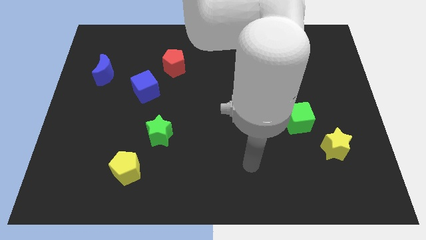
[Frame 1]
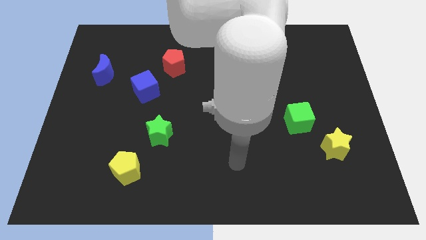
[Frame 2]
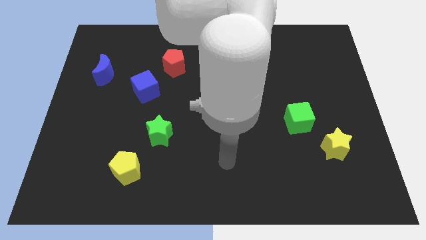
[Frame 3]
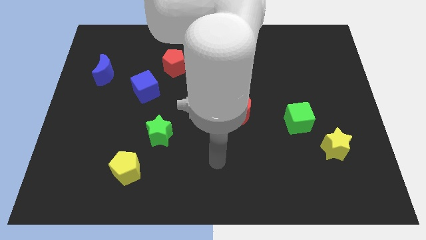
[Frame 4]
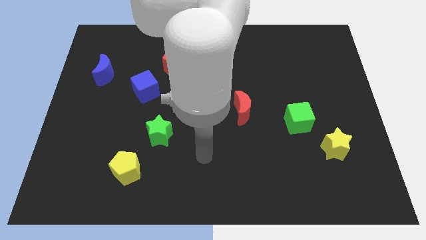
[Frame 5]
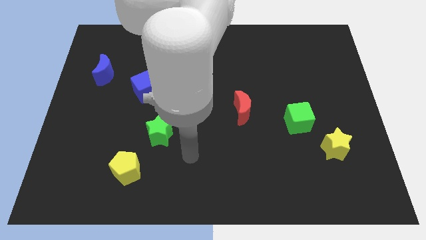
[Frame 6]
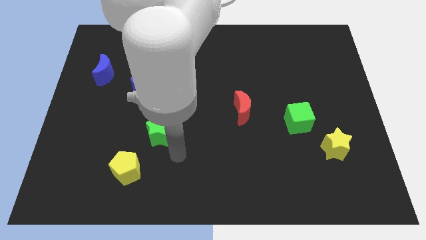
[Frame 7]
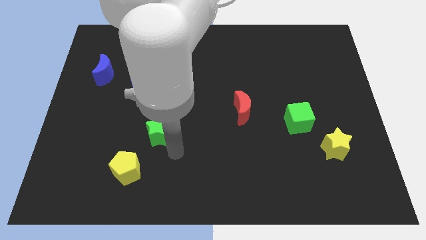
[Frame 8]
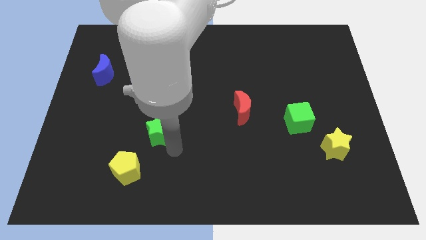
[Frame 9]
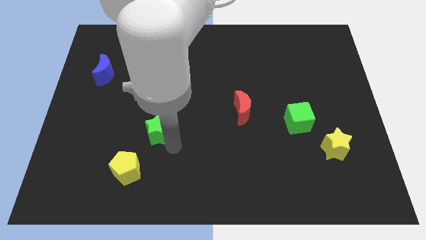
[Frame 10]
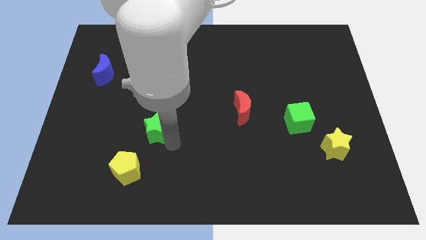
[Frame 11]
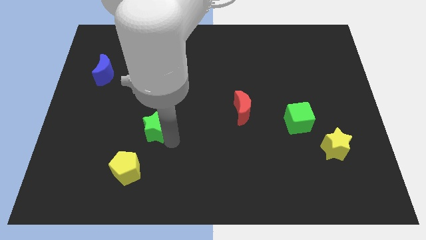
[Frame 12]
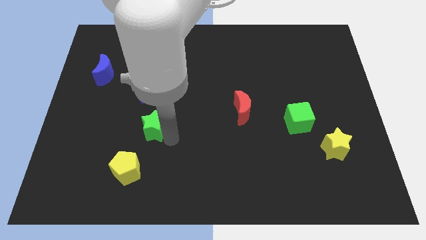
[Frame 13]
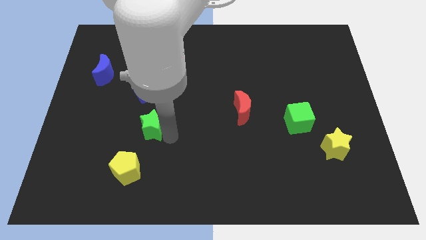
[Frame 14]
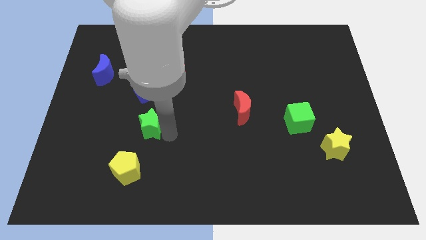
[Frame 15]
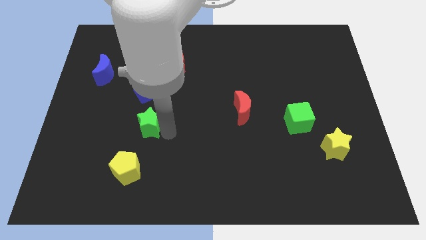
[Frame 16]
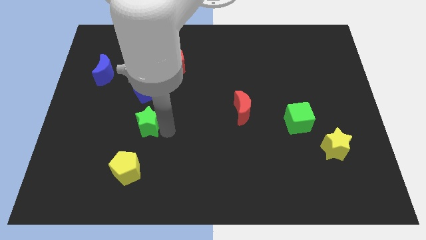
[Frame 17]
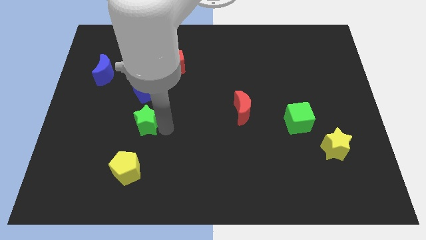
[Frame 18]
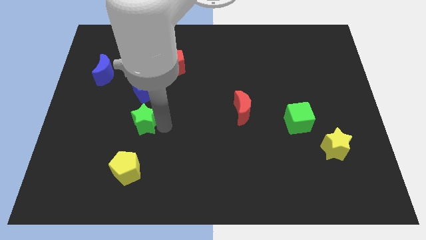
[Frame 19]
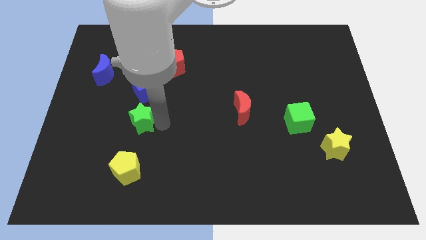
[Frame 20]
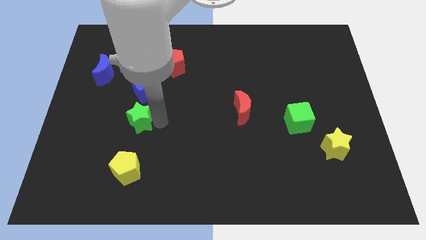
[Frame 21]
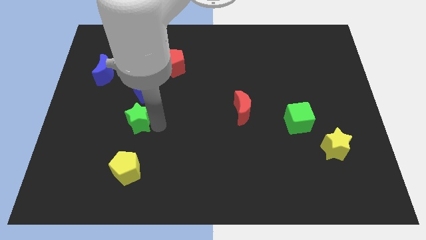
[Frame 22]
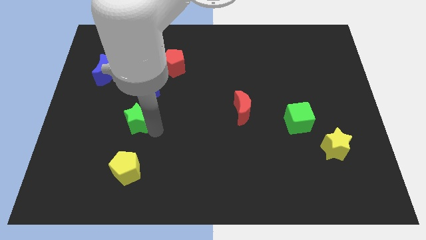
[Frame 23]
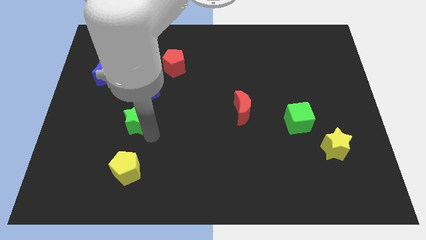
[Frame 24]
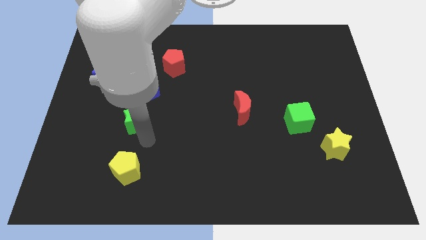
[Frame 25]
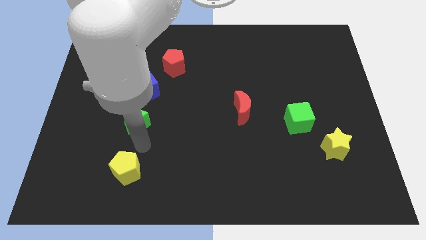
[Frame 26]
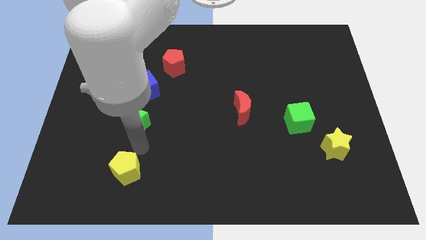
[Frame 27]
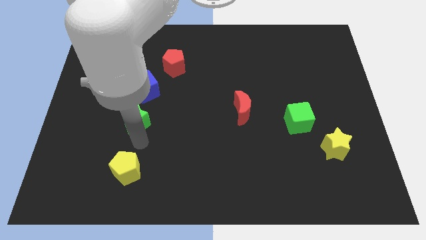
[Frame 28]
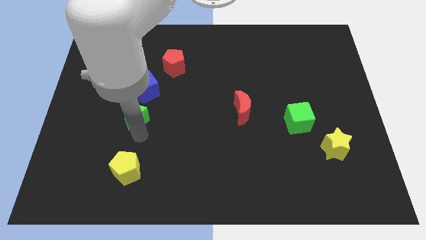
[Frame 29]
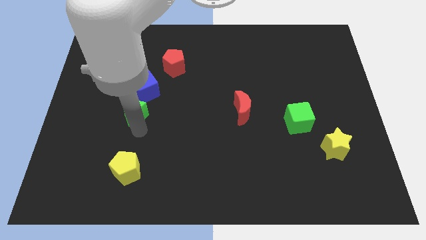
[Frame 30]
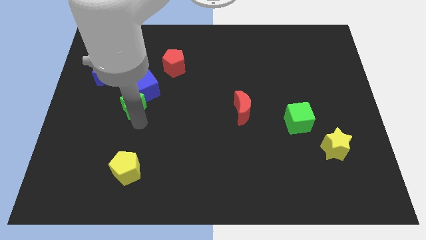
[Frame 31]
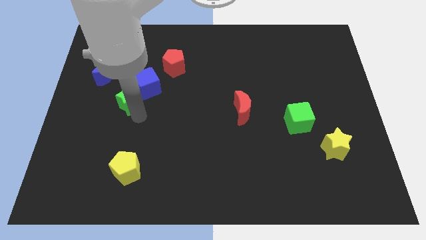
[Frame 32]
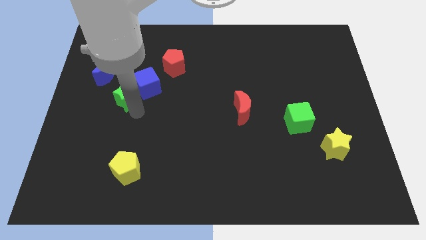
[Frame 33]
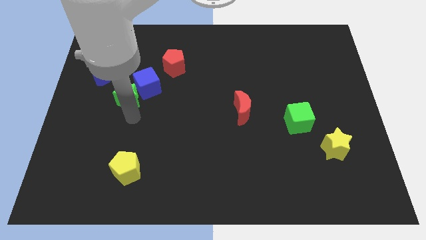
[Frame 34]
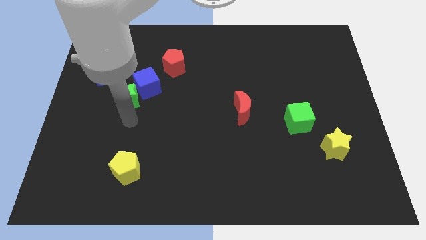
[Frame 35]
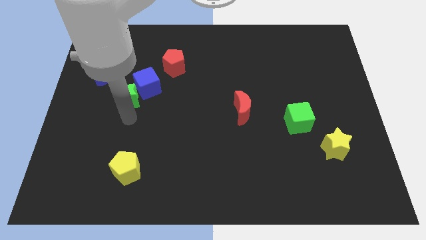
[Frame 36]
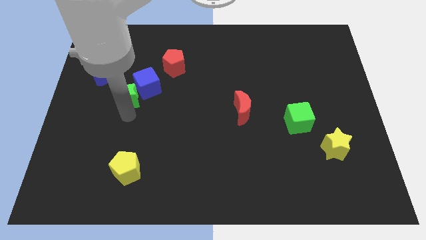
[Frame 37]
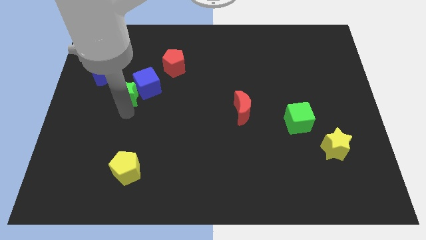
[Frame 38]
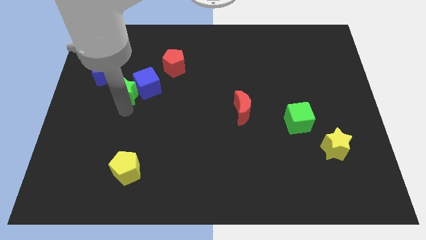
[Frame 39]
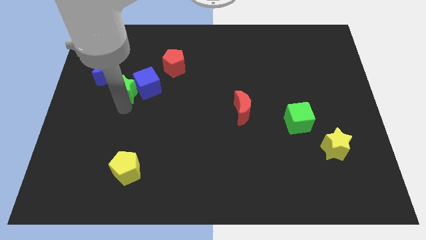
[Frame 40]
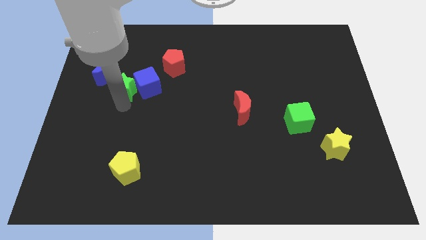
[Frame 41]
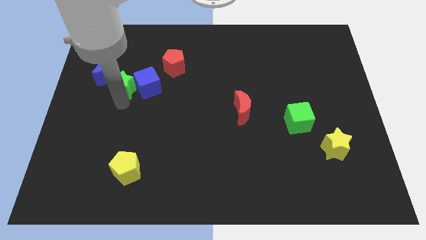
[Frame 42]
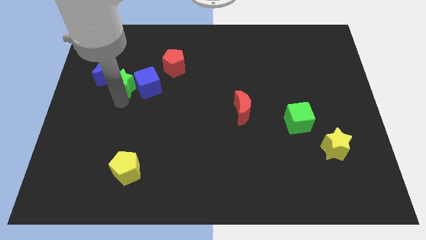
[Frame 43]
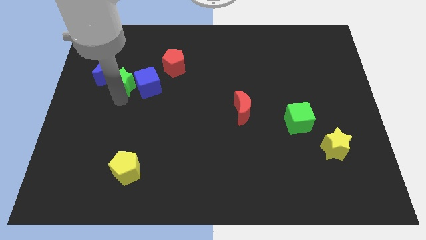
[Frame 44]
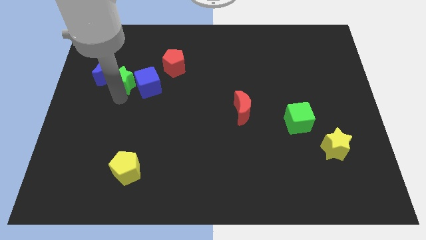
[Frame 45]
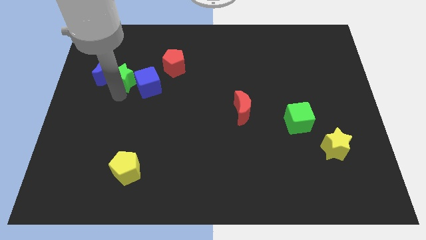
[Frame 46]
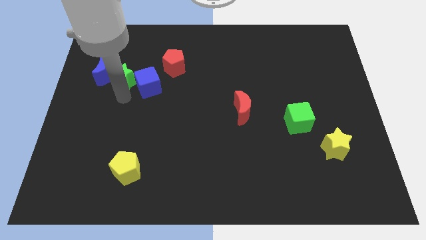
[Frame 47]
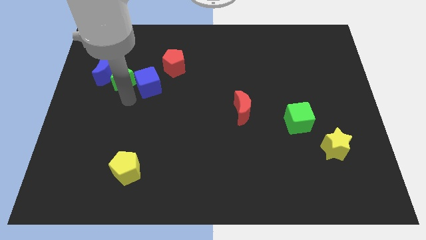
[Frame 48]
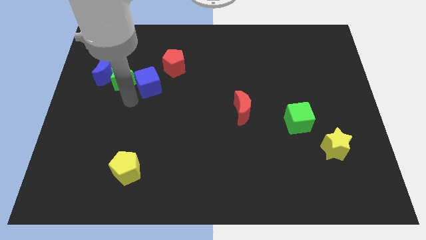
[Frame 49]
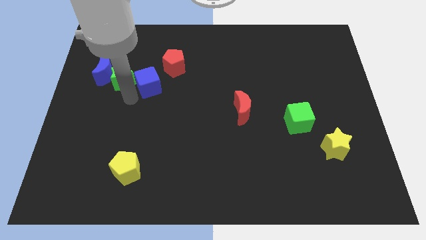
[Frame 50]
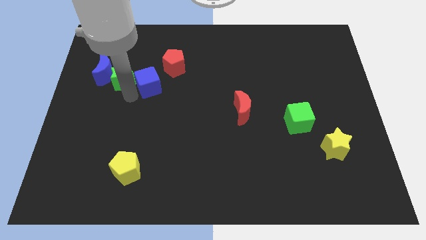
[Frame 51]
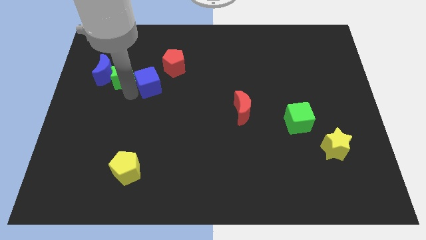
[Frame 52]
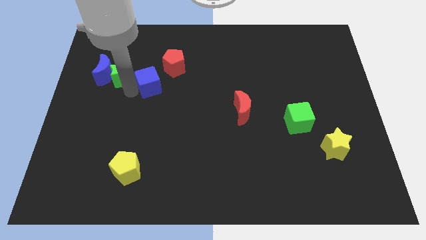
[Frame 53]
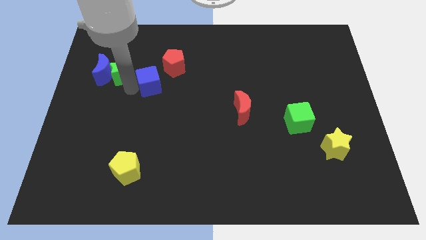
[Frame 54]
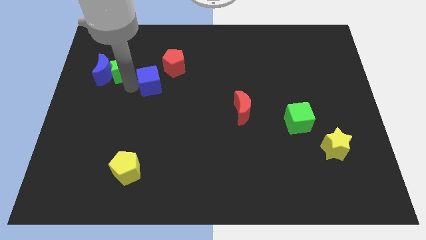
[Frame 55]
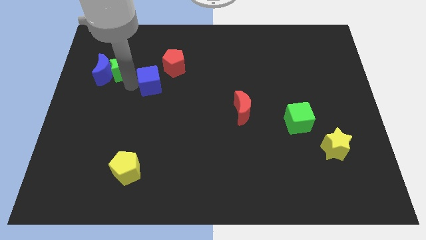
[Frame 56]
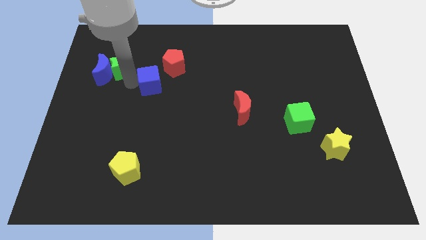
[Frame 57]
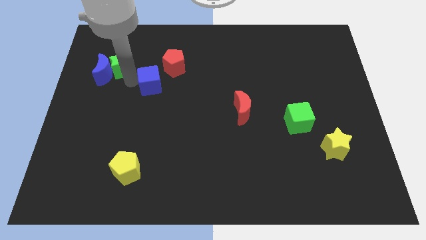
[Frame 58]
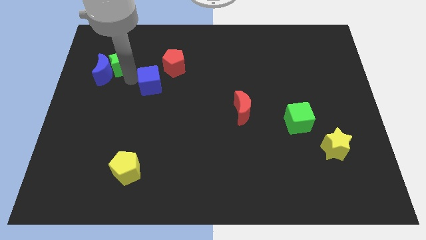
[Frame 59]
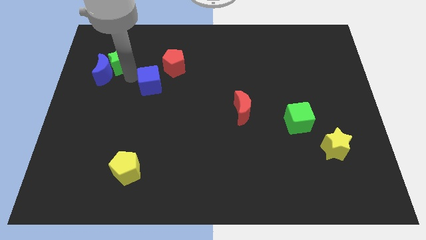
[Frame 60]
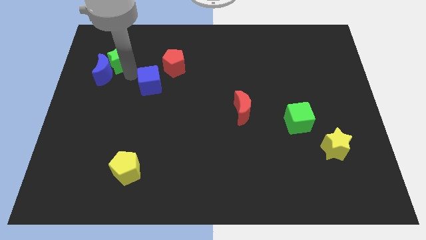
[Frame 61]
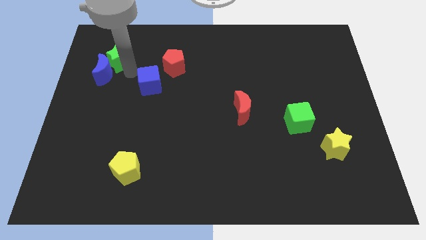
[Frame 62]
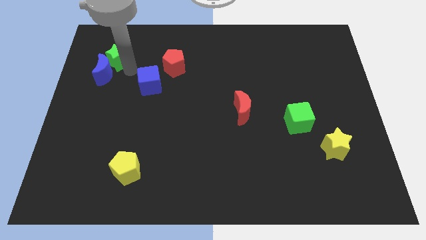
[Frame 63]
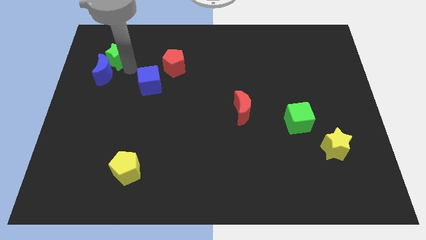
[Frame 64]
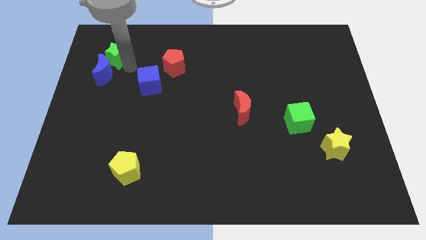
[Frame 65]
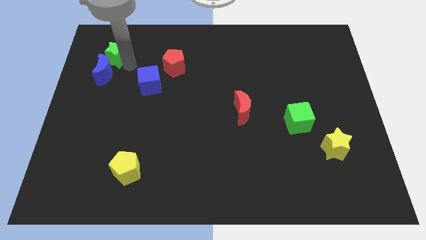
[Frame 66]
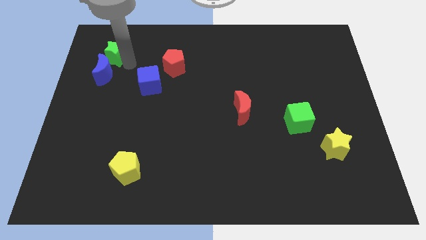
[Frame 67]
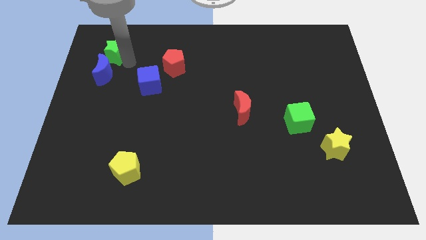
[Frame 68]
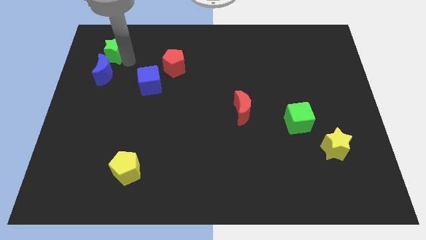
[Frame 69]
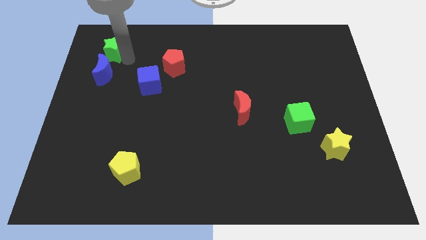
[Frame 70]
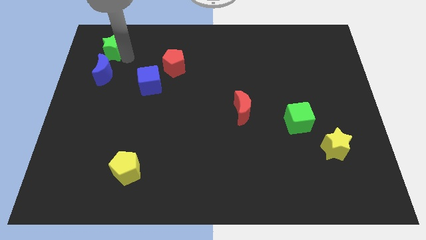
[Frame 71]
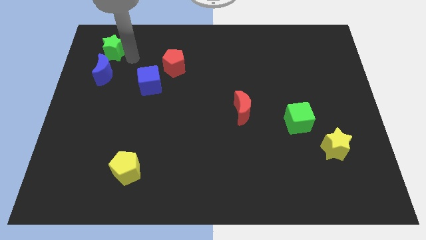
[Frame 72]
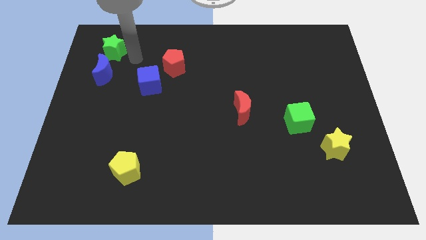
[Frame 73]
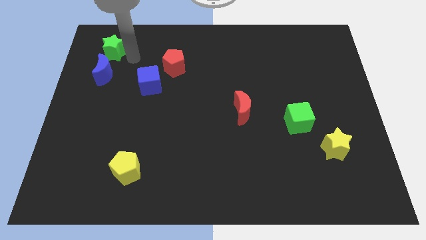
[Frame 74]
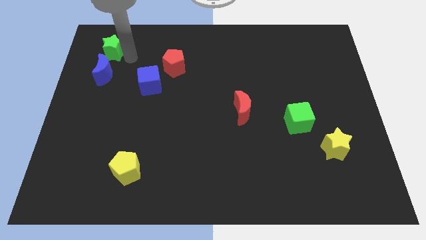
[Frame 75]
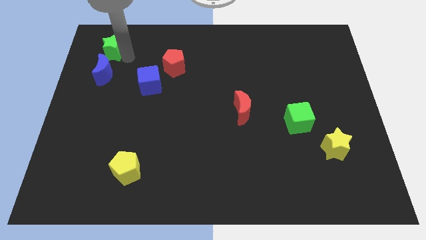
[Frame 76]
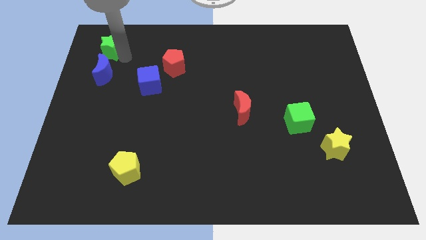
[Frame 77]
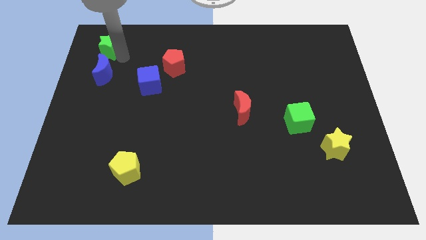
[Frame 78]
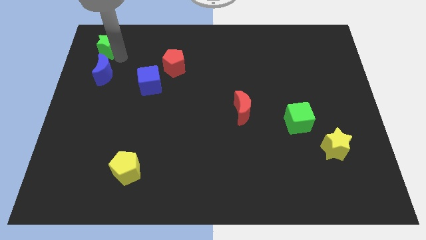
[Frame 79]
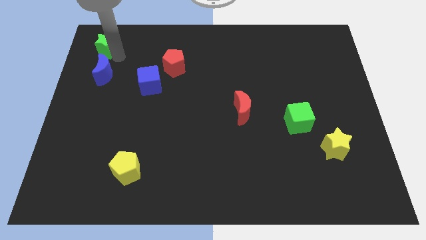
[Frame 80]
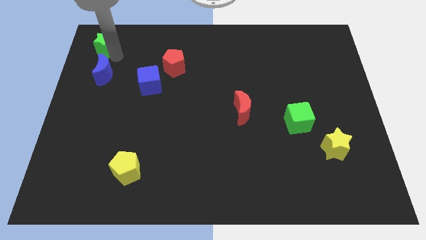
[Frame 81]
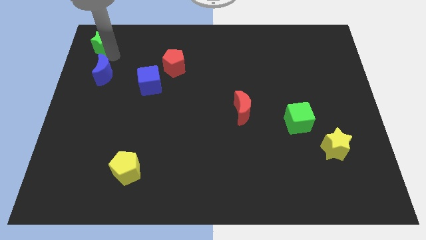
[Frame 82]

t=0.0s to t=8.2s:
slide the green star to the top left corner
